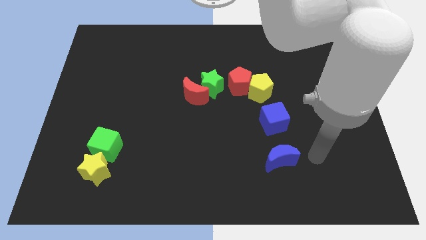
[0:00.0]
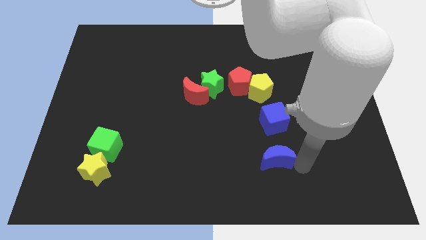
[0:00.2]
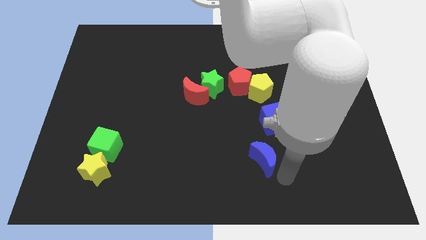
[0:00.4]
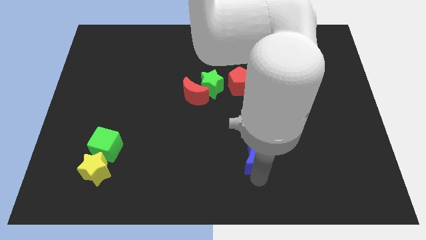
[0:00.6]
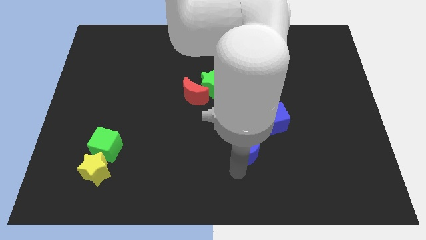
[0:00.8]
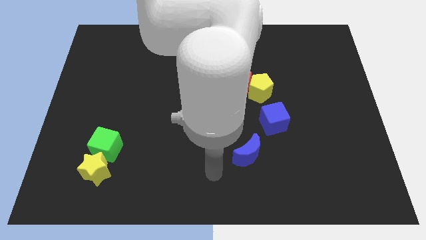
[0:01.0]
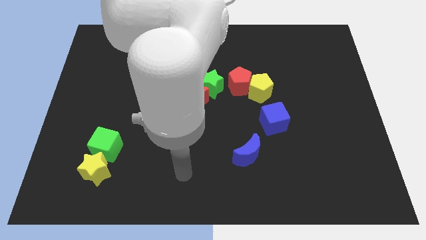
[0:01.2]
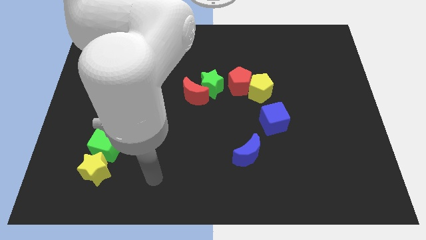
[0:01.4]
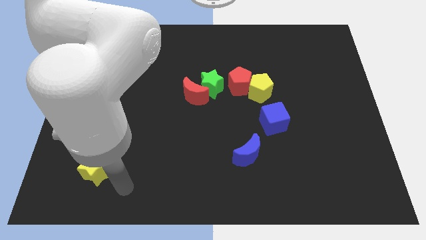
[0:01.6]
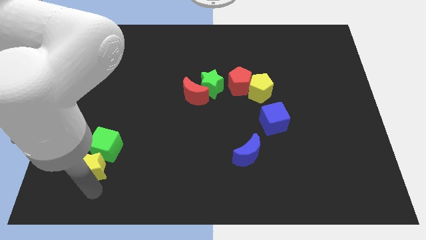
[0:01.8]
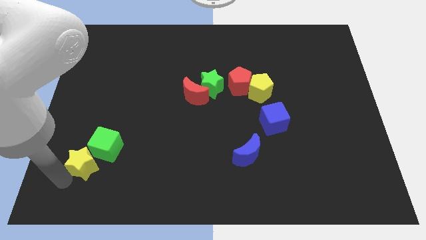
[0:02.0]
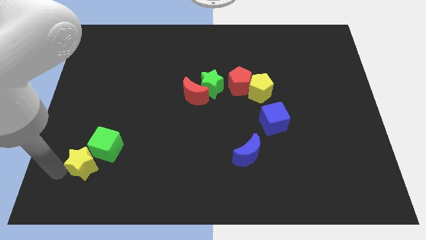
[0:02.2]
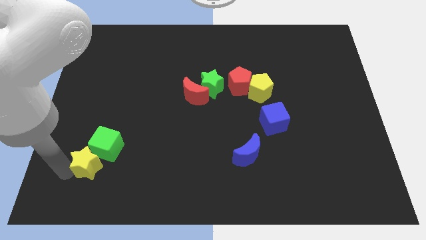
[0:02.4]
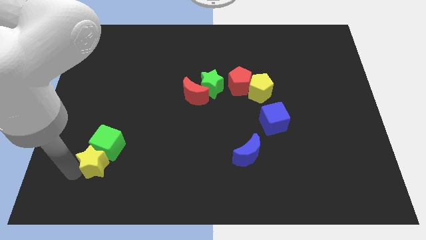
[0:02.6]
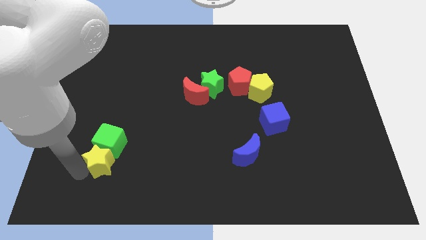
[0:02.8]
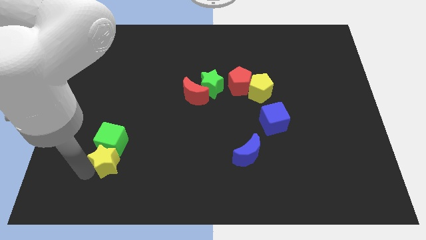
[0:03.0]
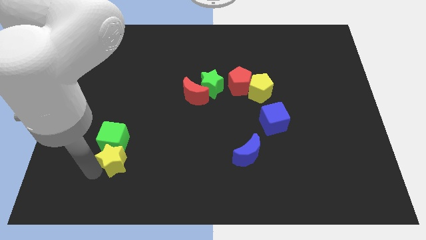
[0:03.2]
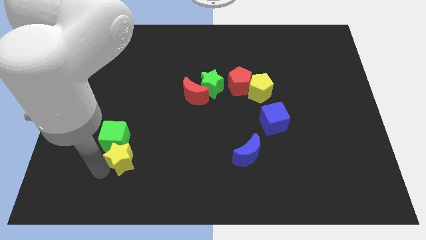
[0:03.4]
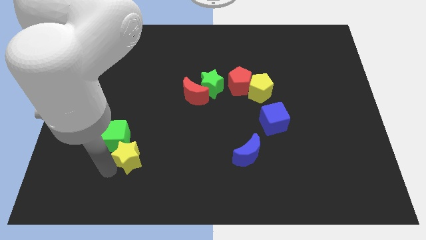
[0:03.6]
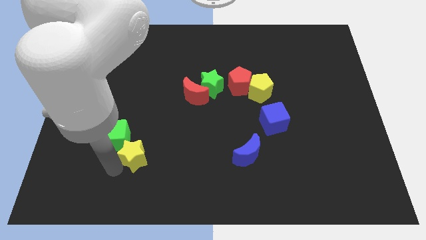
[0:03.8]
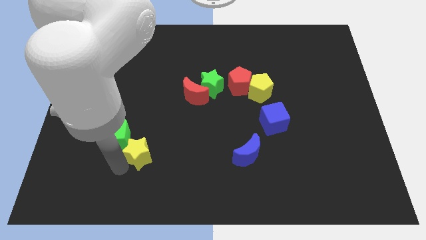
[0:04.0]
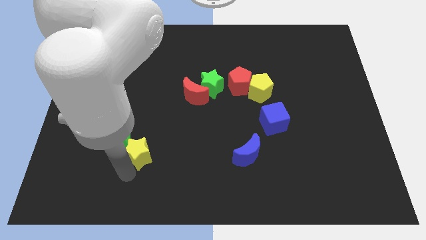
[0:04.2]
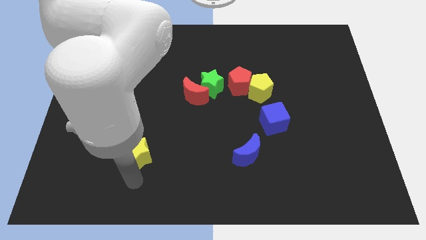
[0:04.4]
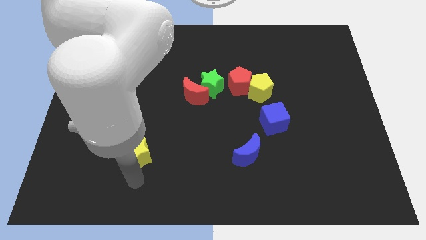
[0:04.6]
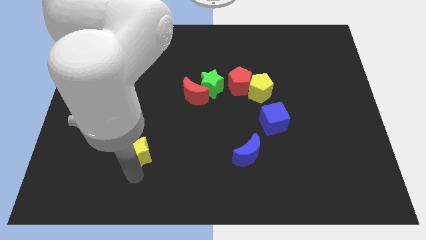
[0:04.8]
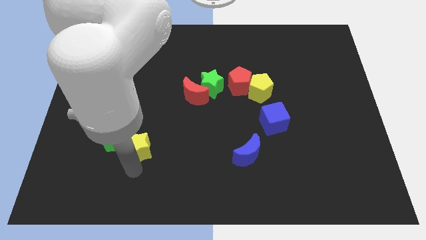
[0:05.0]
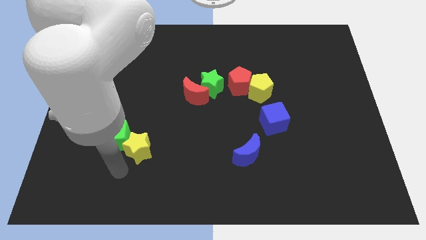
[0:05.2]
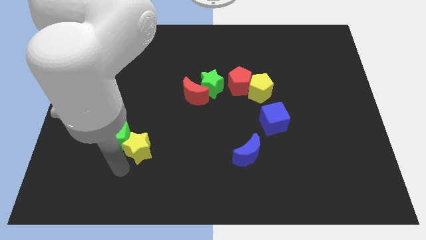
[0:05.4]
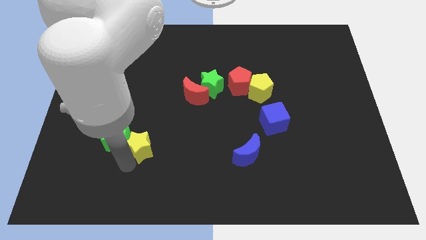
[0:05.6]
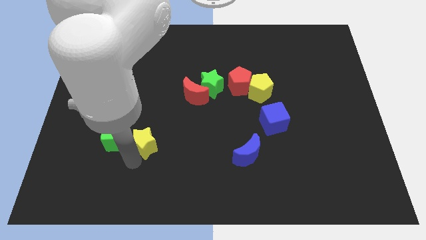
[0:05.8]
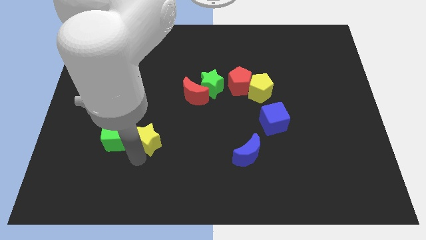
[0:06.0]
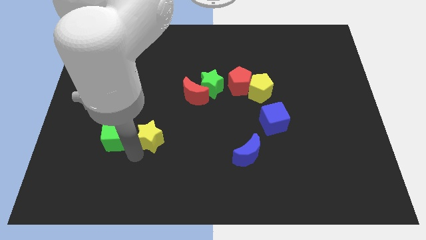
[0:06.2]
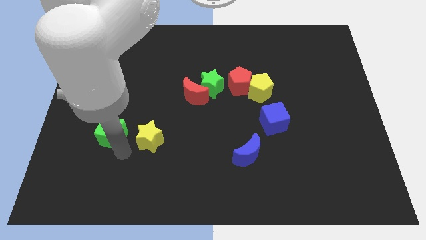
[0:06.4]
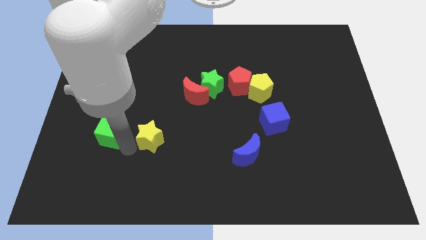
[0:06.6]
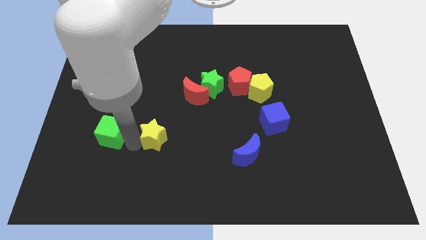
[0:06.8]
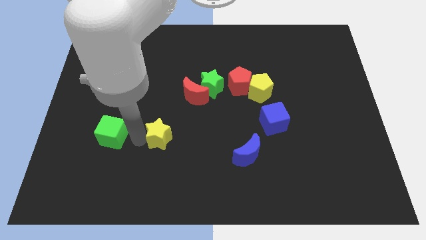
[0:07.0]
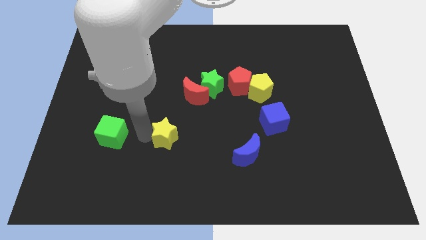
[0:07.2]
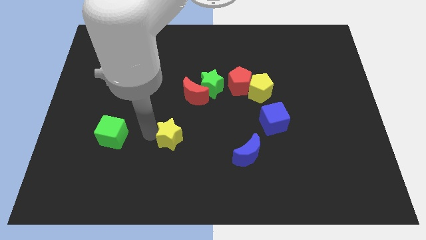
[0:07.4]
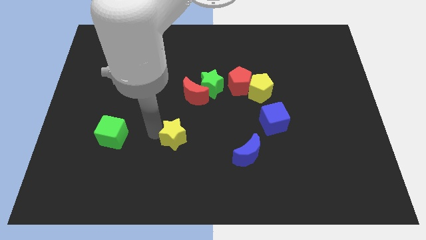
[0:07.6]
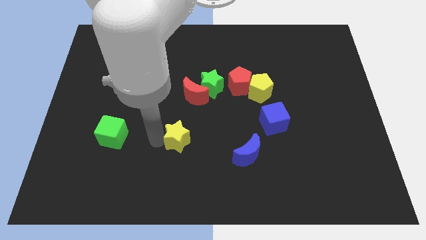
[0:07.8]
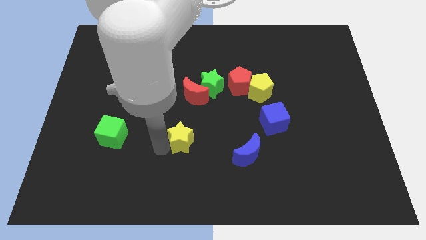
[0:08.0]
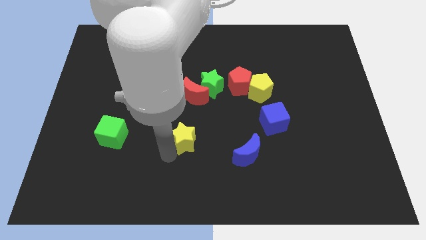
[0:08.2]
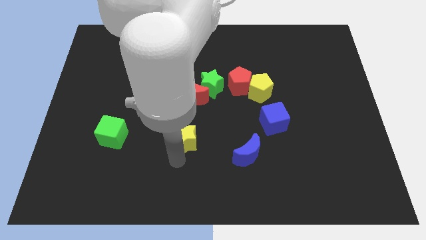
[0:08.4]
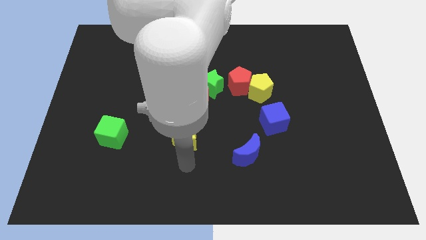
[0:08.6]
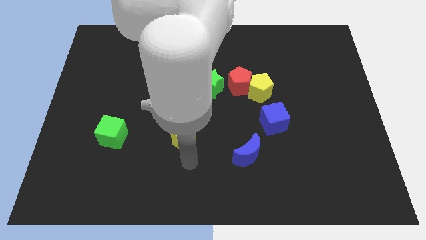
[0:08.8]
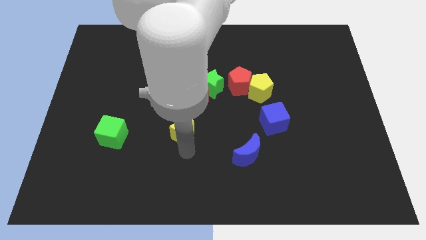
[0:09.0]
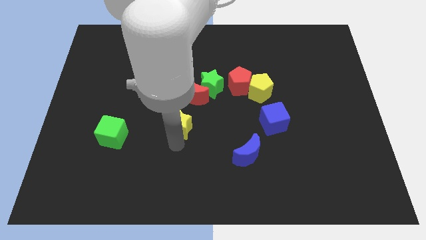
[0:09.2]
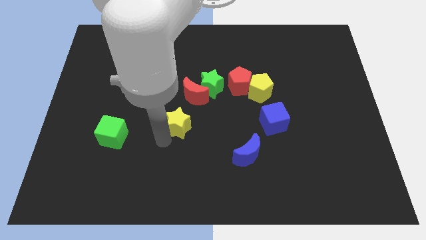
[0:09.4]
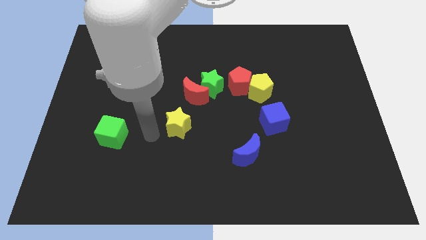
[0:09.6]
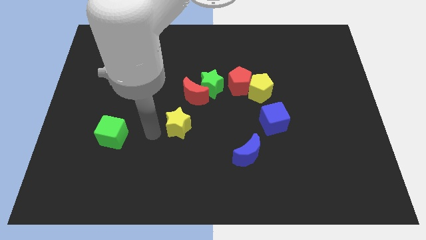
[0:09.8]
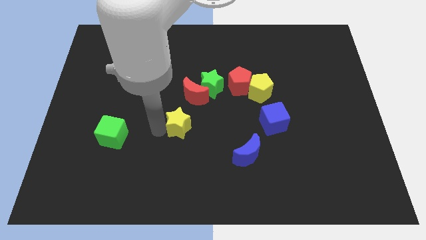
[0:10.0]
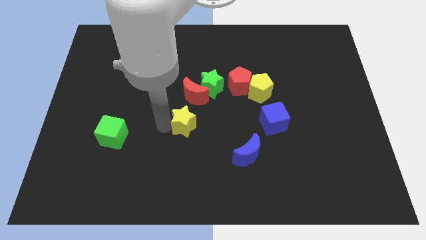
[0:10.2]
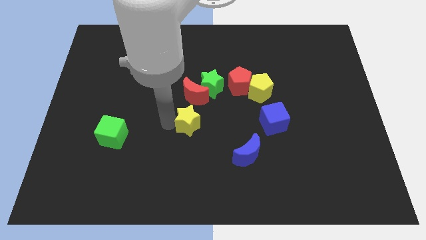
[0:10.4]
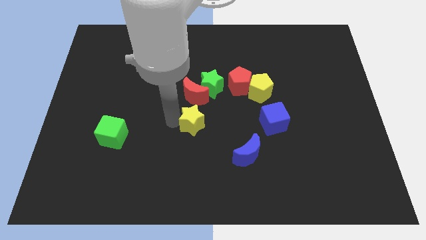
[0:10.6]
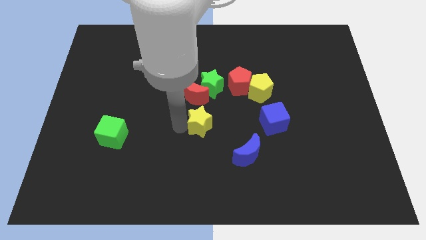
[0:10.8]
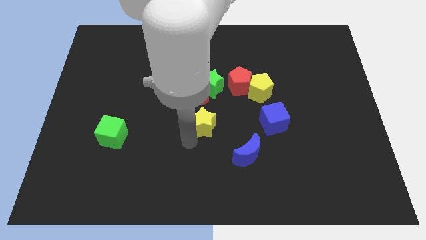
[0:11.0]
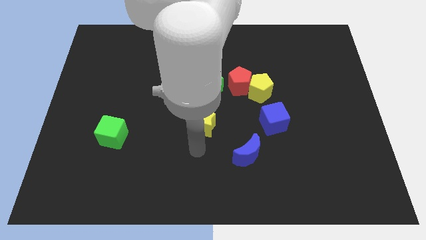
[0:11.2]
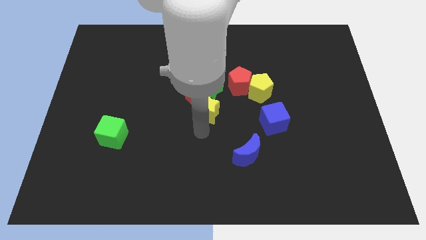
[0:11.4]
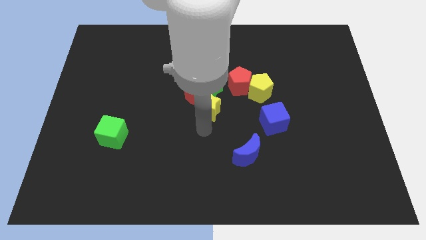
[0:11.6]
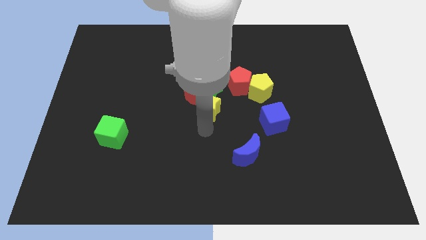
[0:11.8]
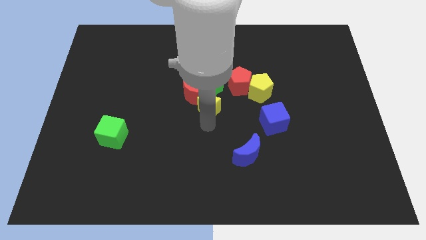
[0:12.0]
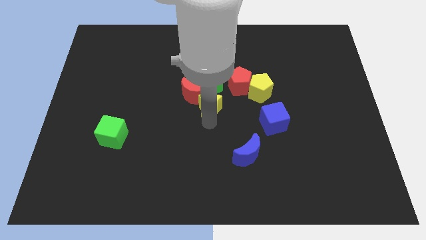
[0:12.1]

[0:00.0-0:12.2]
slide the yellow star next to the green star

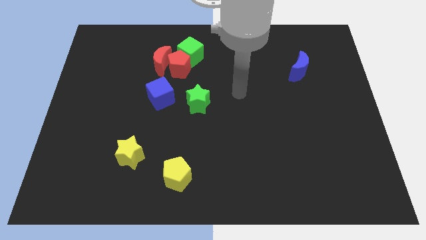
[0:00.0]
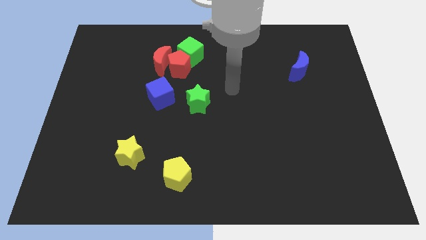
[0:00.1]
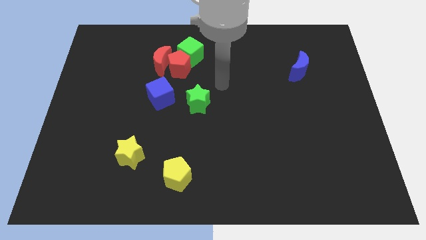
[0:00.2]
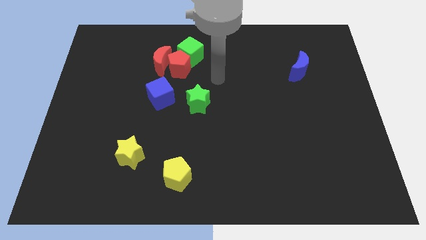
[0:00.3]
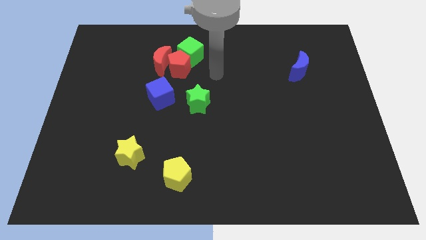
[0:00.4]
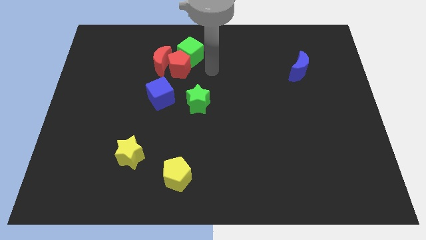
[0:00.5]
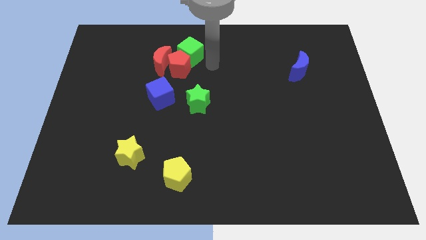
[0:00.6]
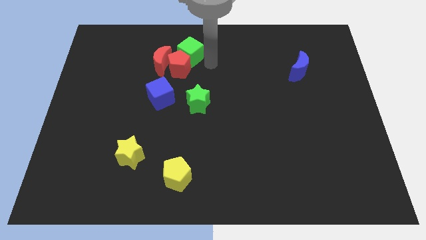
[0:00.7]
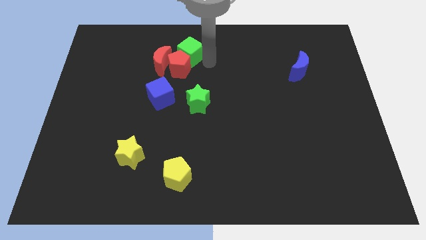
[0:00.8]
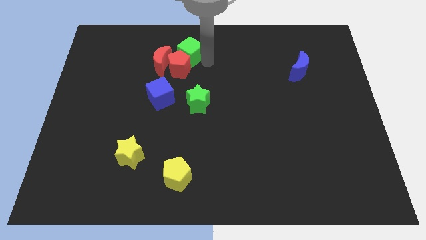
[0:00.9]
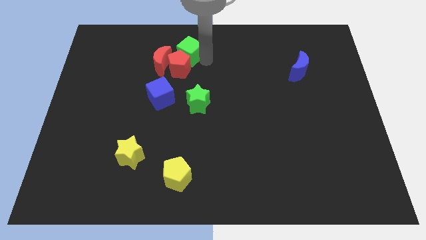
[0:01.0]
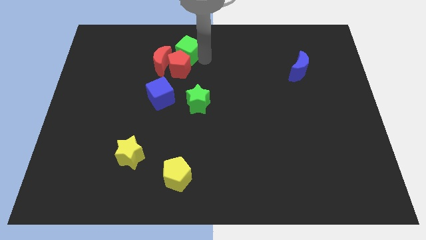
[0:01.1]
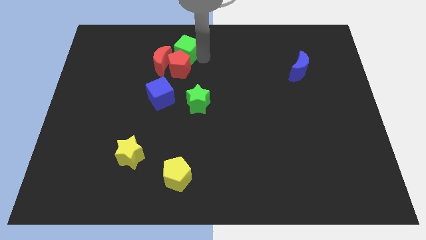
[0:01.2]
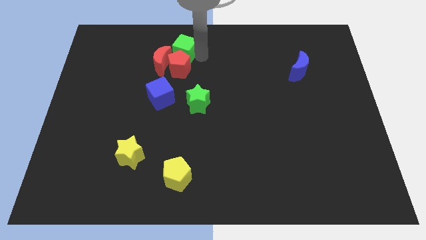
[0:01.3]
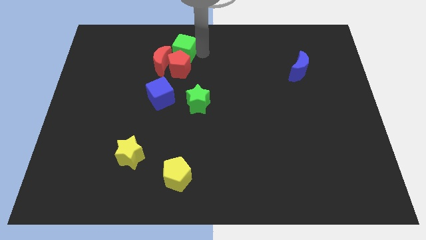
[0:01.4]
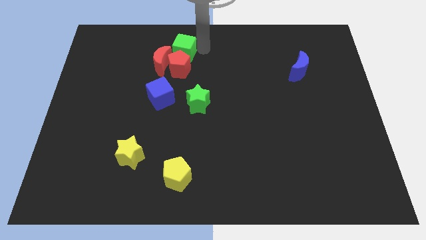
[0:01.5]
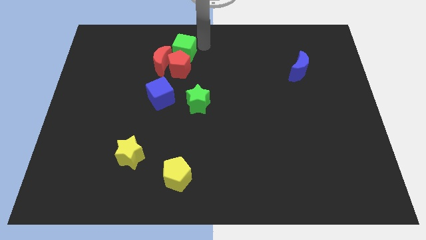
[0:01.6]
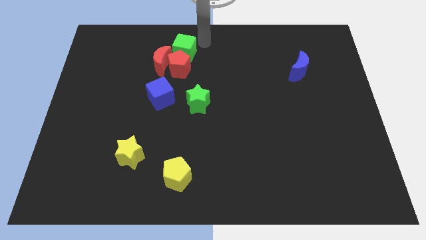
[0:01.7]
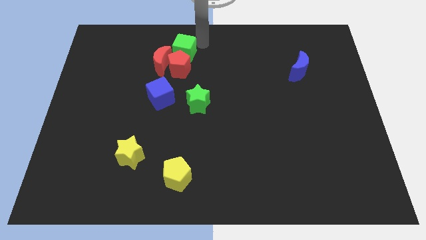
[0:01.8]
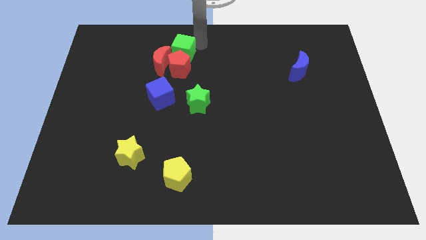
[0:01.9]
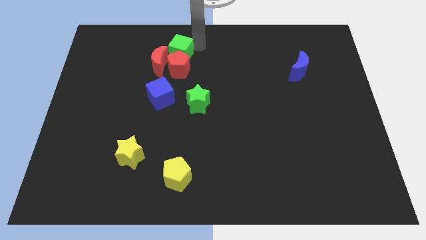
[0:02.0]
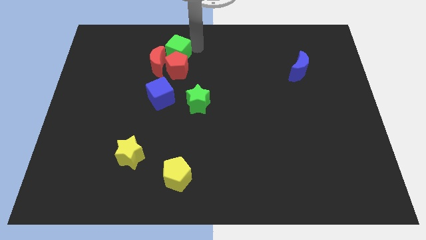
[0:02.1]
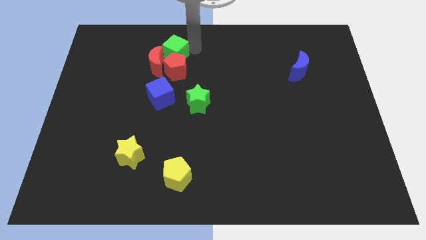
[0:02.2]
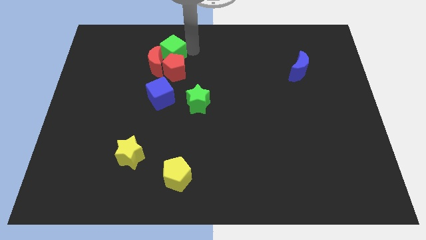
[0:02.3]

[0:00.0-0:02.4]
put the green cube next to the red moon
